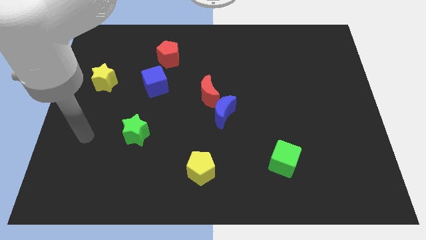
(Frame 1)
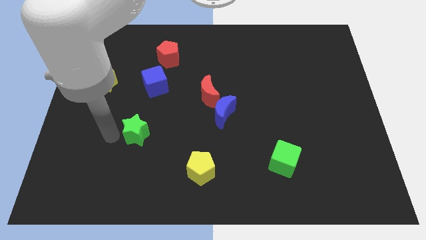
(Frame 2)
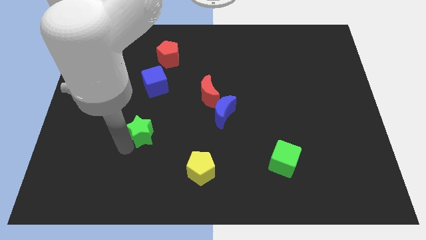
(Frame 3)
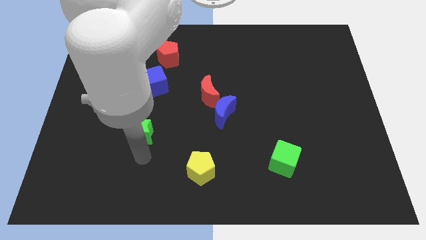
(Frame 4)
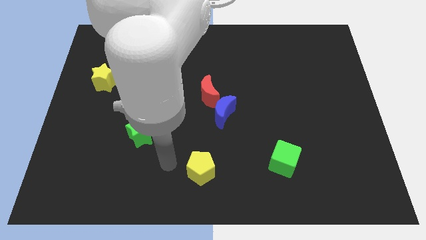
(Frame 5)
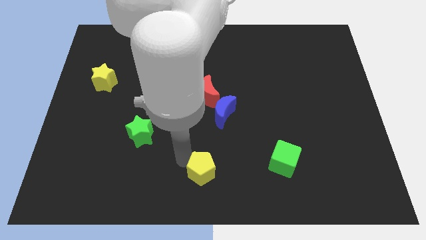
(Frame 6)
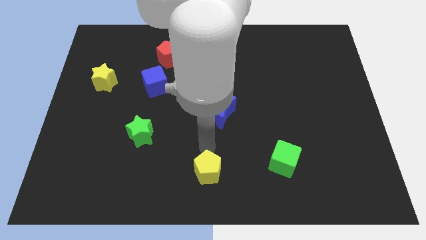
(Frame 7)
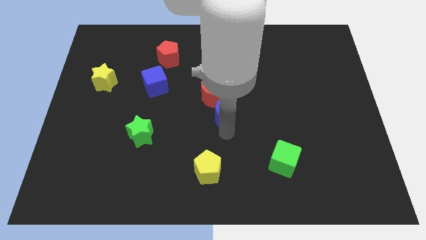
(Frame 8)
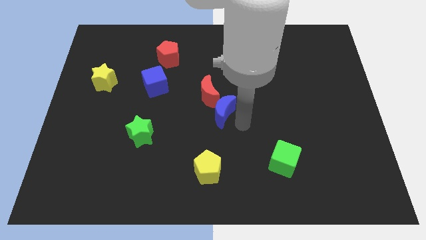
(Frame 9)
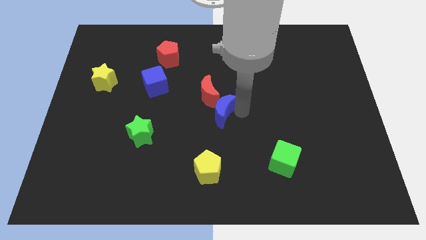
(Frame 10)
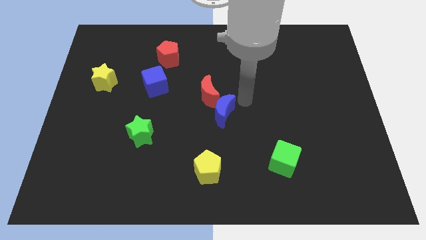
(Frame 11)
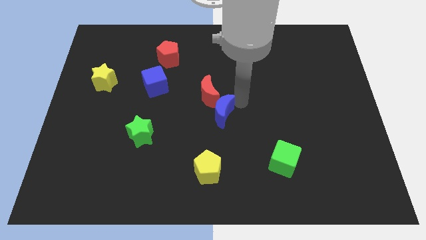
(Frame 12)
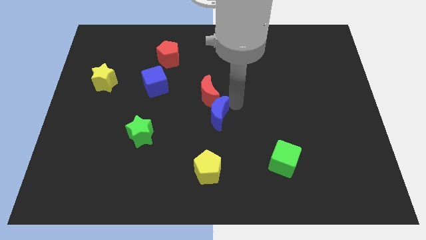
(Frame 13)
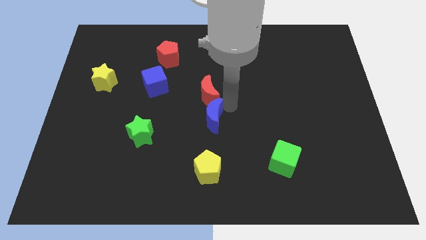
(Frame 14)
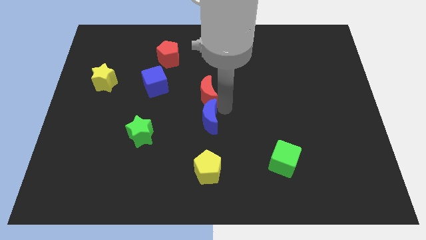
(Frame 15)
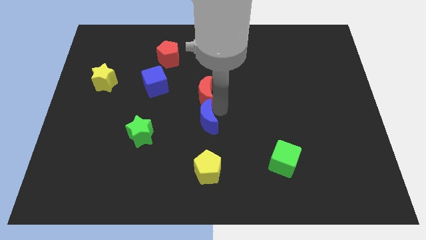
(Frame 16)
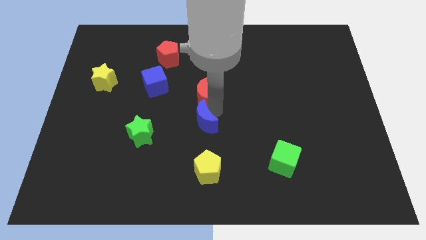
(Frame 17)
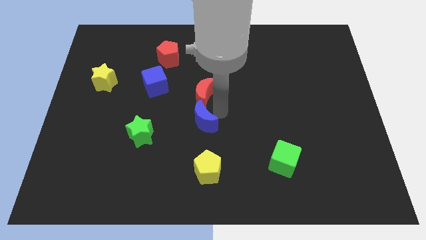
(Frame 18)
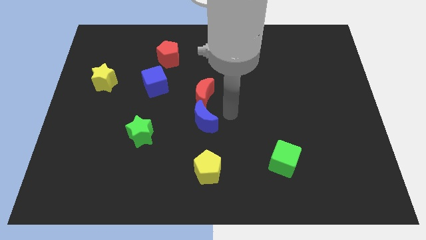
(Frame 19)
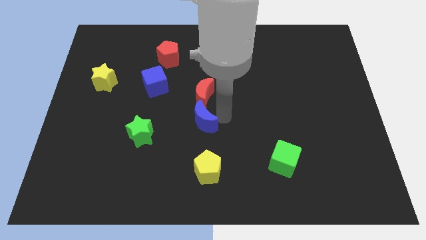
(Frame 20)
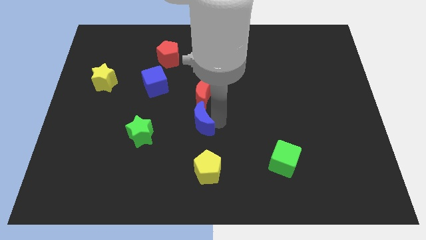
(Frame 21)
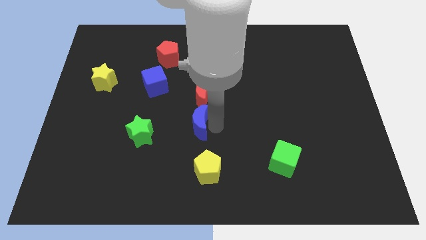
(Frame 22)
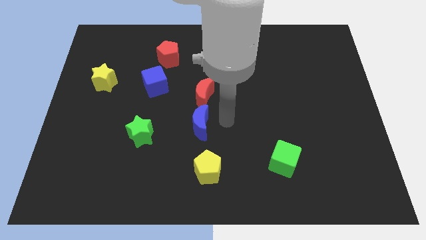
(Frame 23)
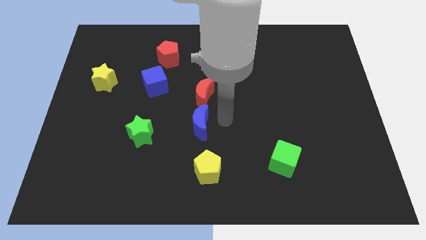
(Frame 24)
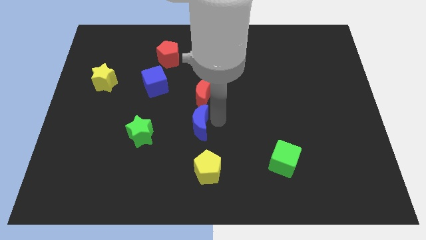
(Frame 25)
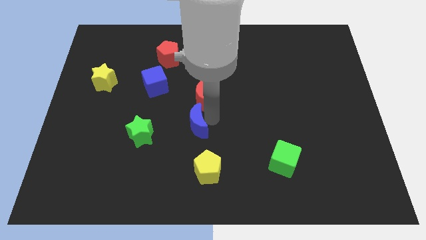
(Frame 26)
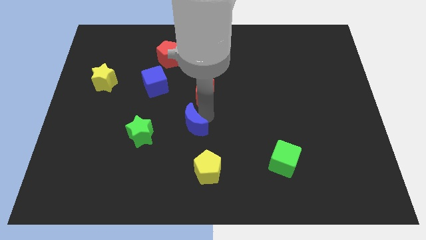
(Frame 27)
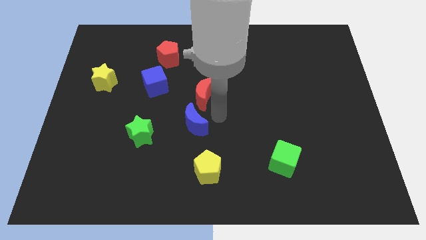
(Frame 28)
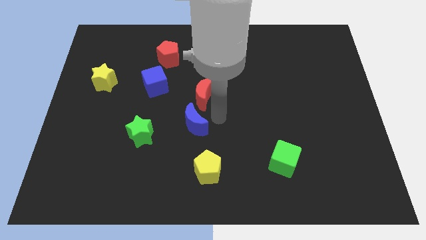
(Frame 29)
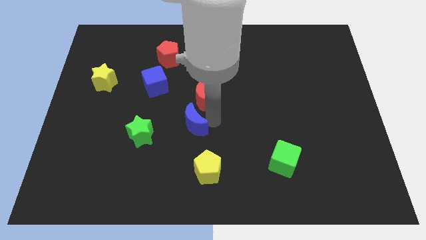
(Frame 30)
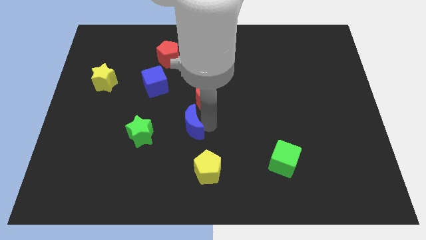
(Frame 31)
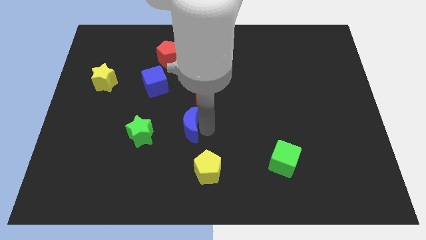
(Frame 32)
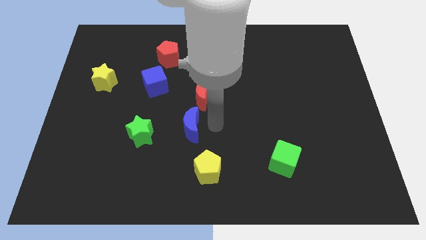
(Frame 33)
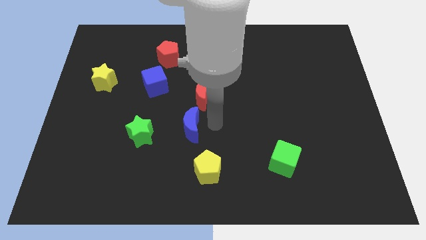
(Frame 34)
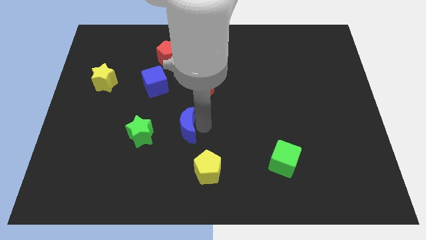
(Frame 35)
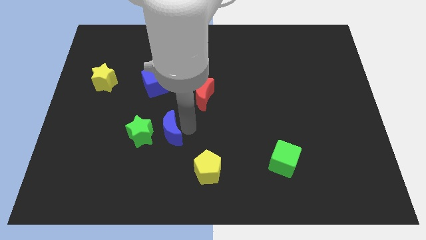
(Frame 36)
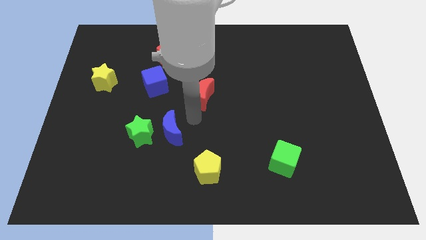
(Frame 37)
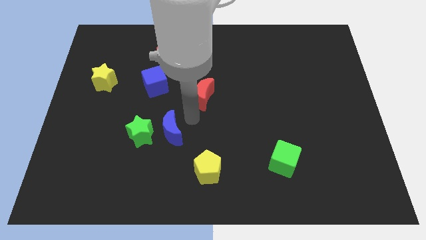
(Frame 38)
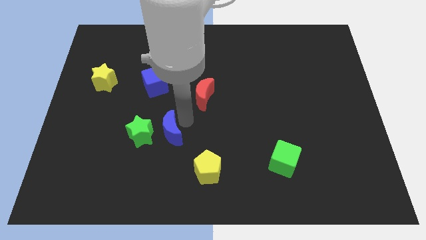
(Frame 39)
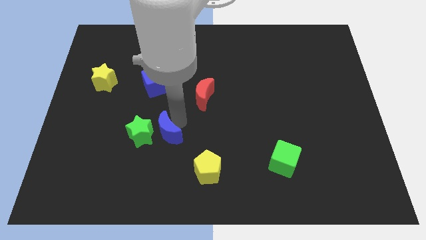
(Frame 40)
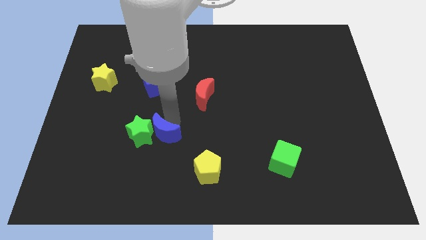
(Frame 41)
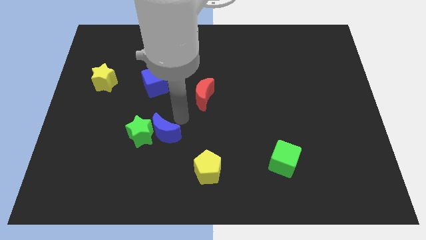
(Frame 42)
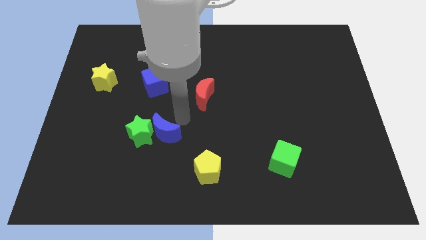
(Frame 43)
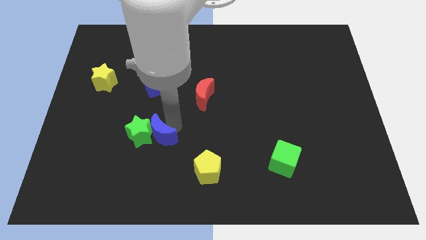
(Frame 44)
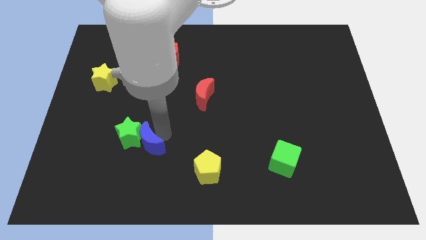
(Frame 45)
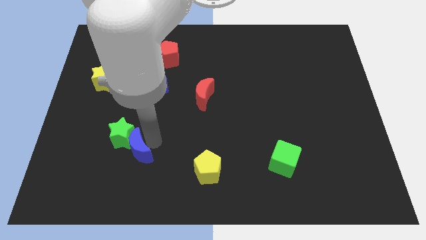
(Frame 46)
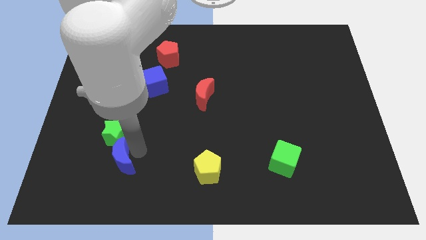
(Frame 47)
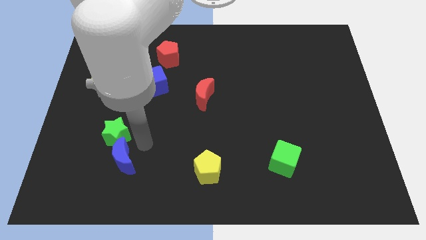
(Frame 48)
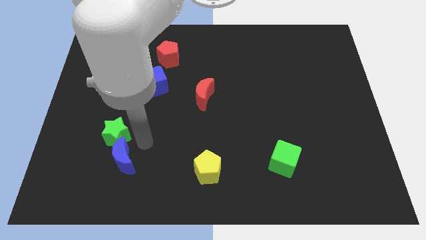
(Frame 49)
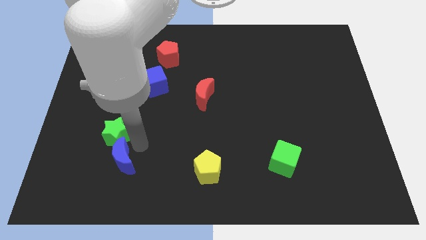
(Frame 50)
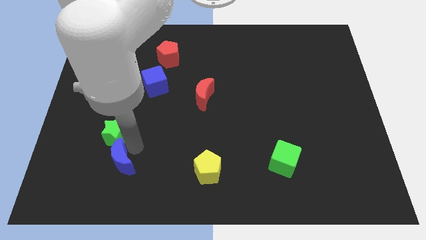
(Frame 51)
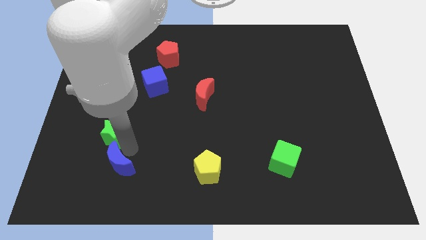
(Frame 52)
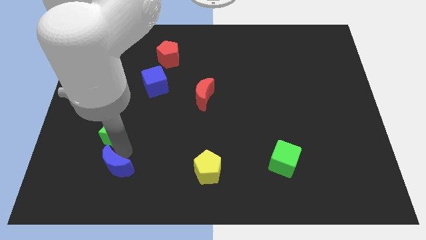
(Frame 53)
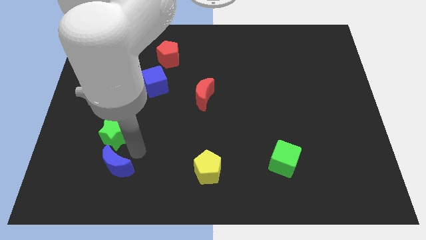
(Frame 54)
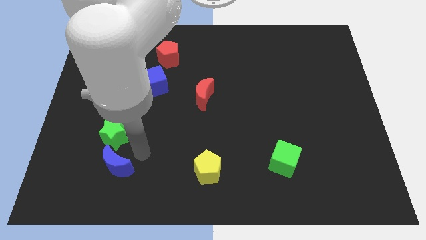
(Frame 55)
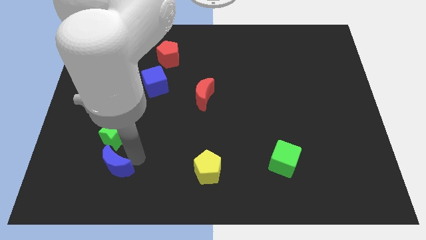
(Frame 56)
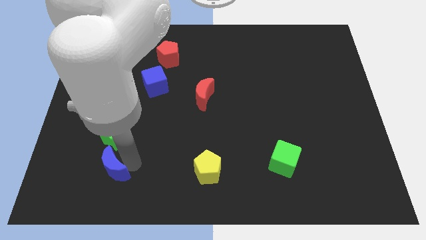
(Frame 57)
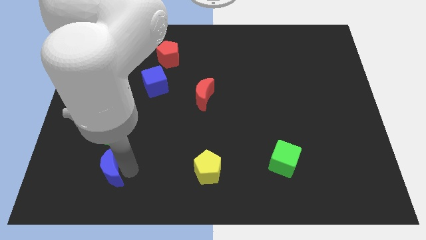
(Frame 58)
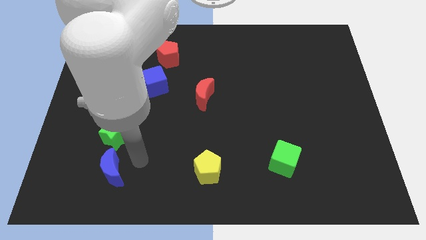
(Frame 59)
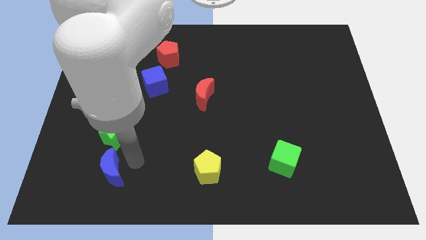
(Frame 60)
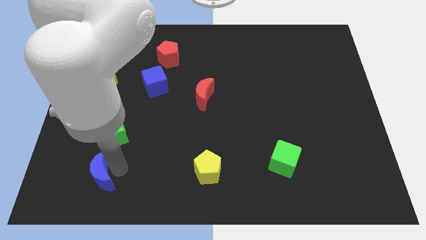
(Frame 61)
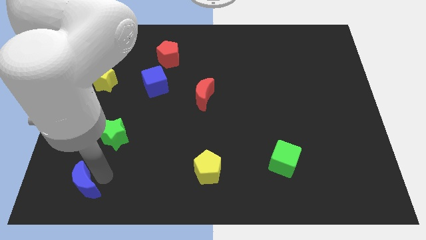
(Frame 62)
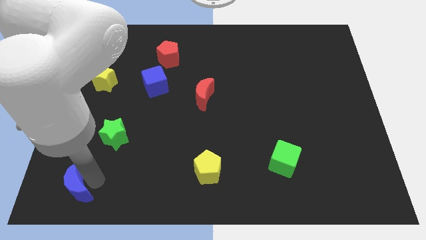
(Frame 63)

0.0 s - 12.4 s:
push the blue moon to the bottom left of the board

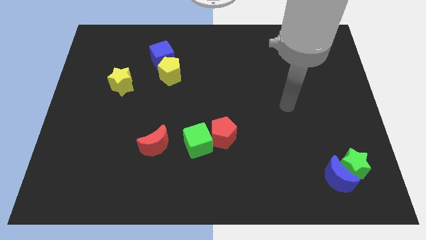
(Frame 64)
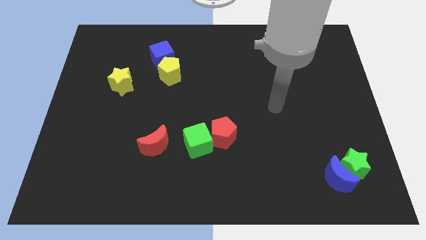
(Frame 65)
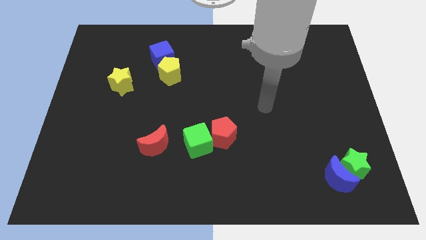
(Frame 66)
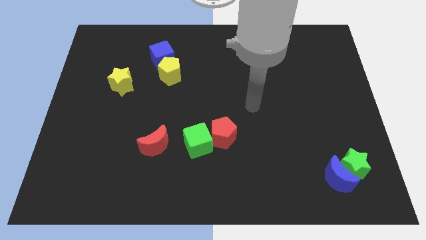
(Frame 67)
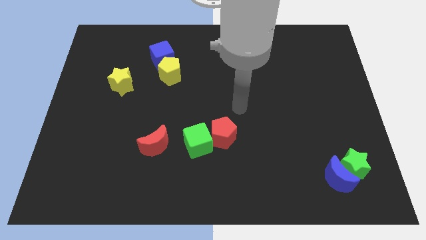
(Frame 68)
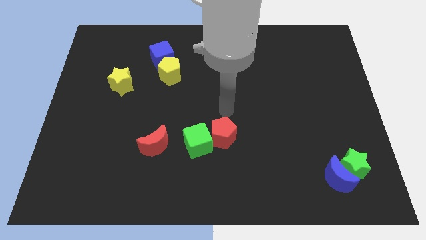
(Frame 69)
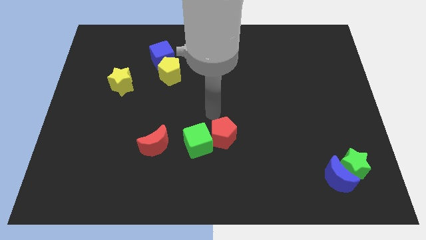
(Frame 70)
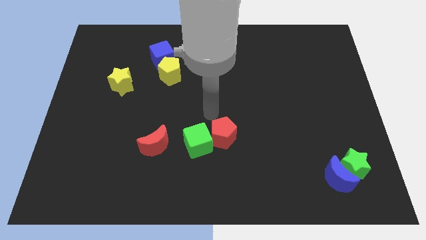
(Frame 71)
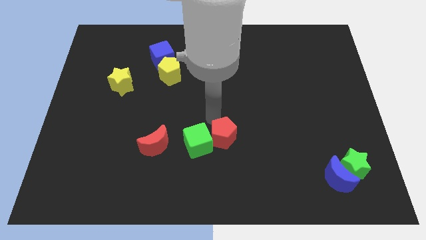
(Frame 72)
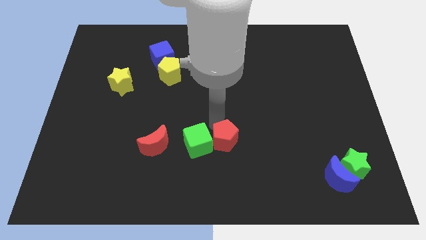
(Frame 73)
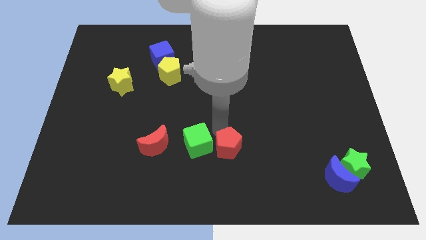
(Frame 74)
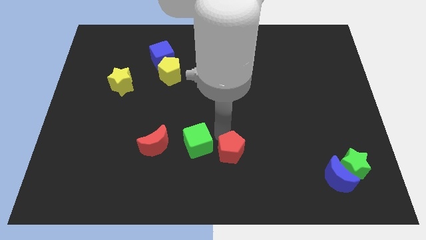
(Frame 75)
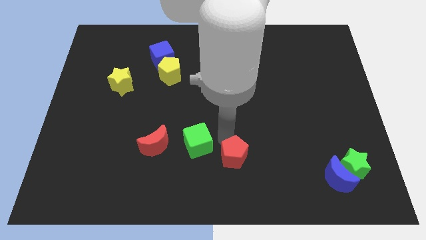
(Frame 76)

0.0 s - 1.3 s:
move the red pentagon to the bottom side
